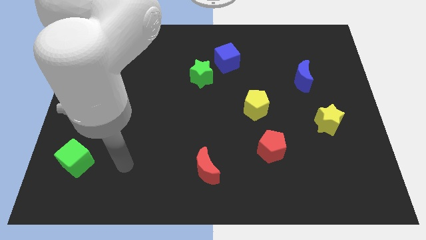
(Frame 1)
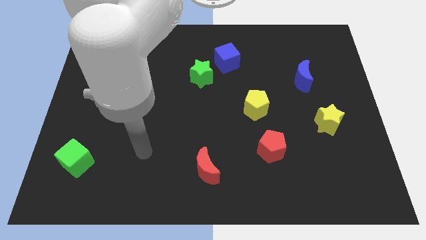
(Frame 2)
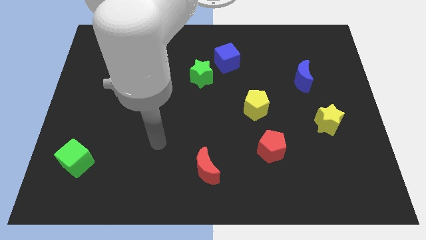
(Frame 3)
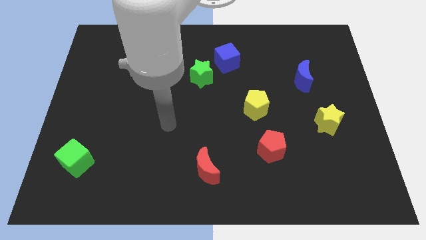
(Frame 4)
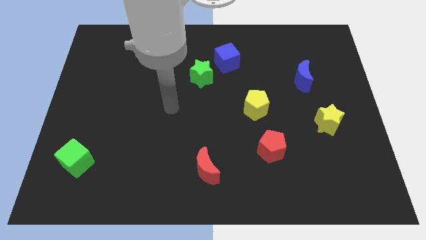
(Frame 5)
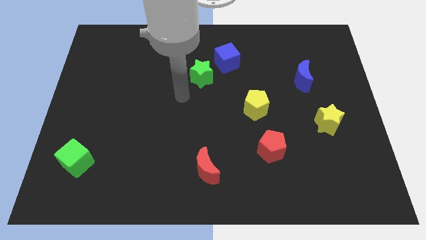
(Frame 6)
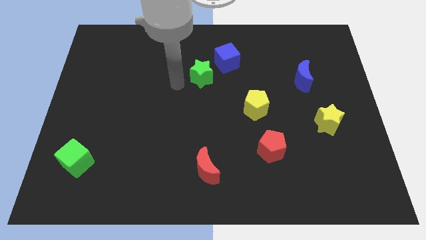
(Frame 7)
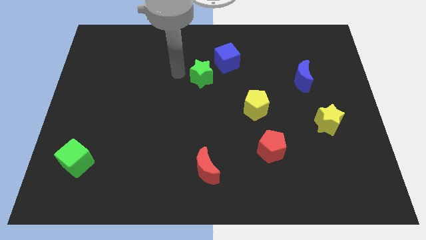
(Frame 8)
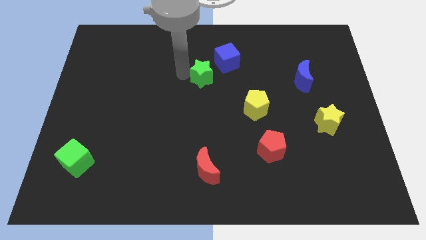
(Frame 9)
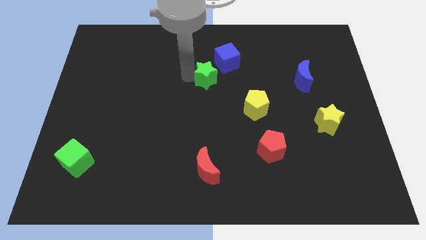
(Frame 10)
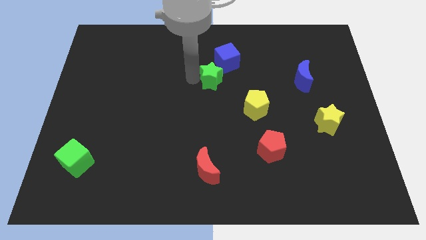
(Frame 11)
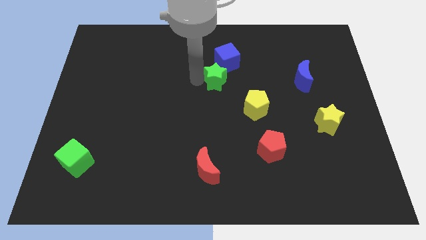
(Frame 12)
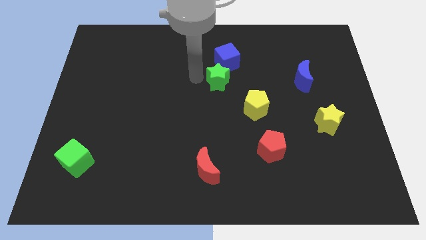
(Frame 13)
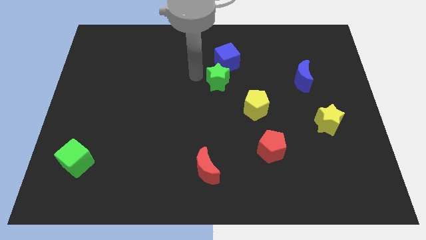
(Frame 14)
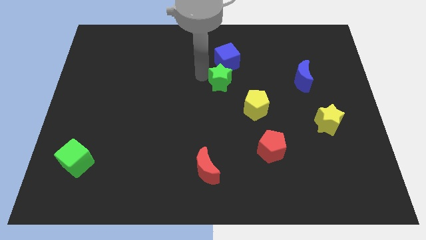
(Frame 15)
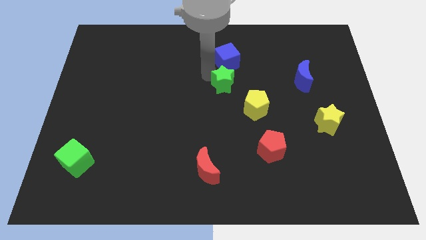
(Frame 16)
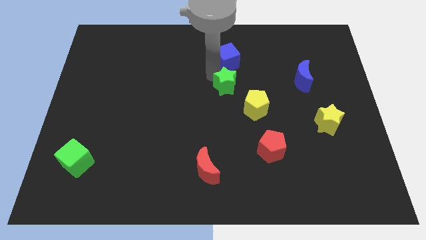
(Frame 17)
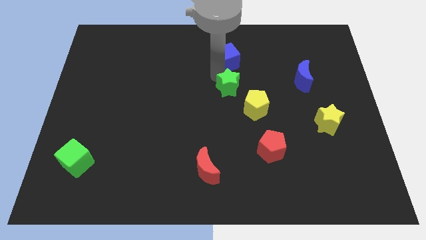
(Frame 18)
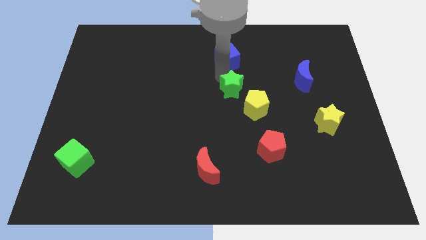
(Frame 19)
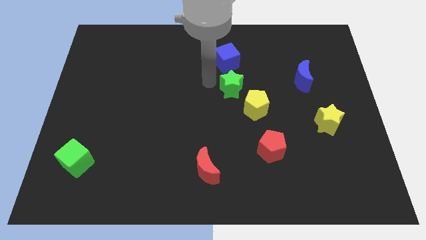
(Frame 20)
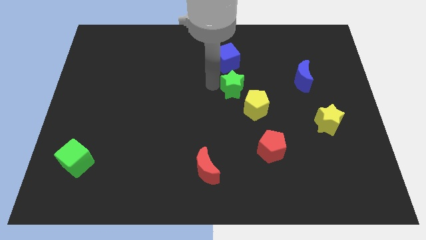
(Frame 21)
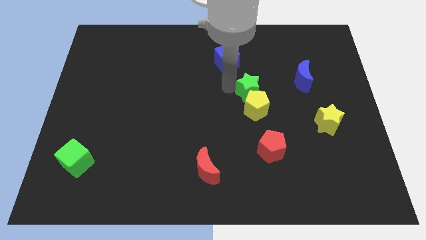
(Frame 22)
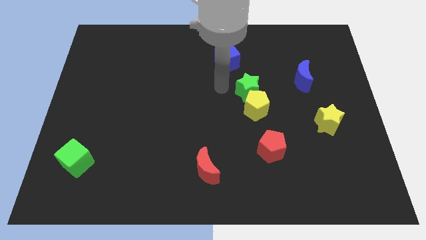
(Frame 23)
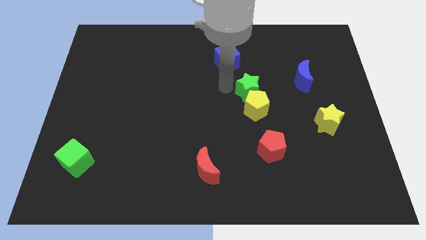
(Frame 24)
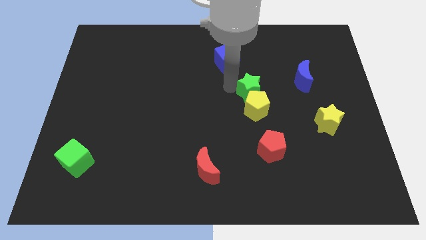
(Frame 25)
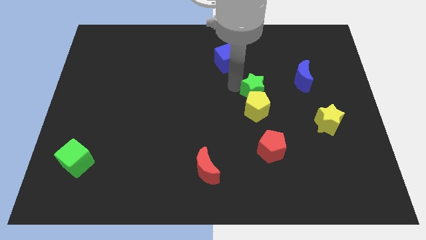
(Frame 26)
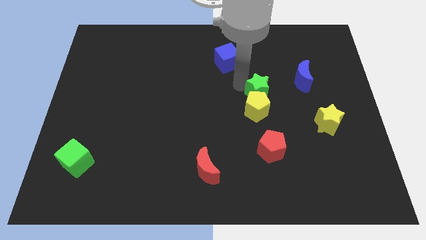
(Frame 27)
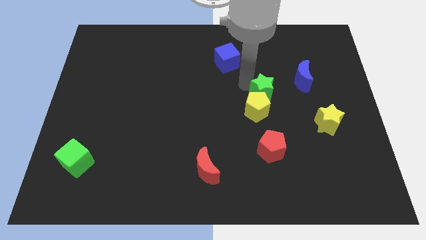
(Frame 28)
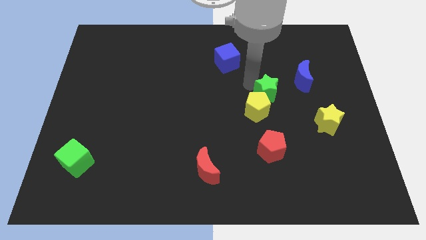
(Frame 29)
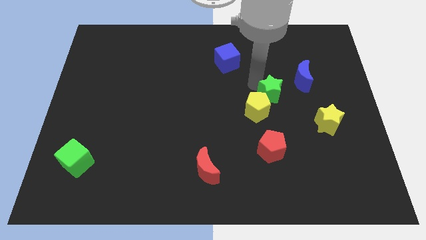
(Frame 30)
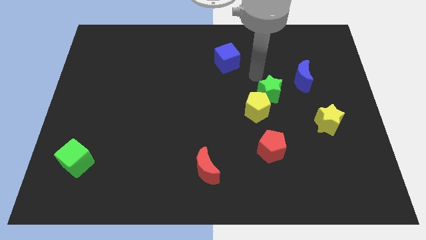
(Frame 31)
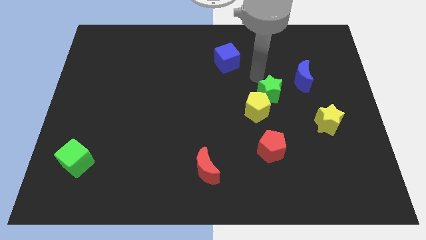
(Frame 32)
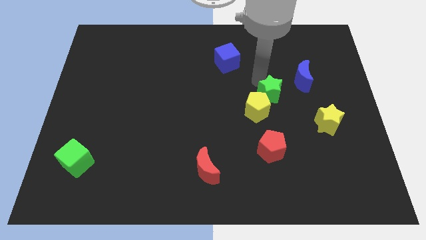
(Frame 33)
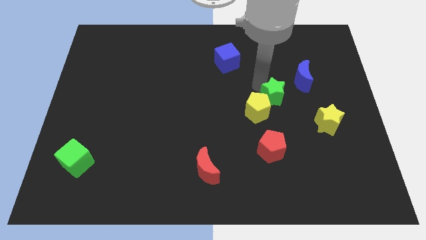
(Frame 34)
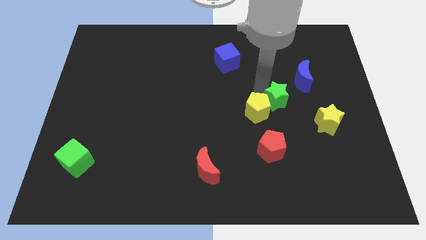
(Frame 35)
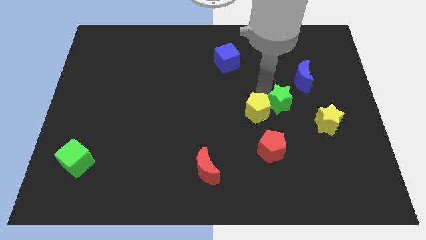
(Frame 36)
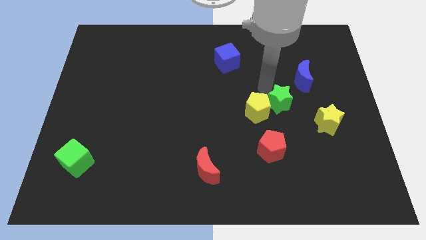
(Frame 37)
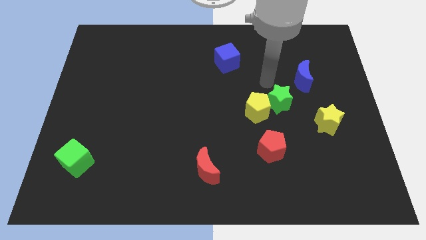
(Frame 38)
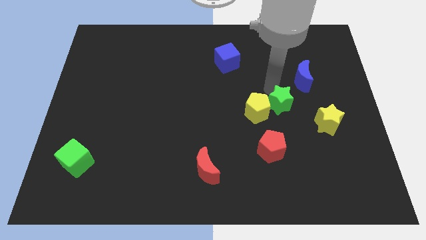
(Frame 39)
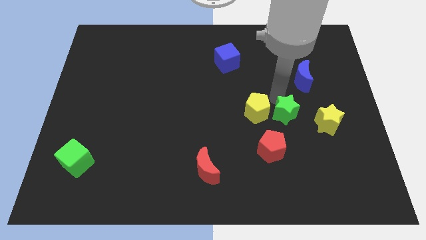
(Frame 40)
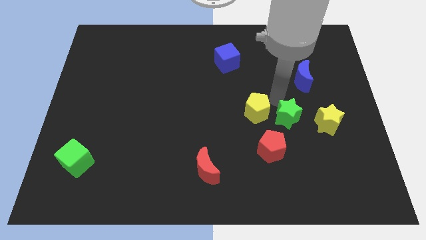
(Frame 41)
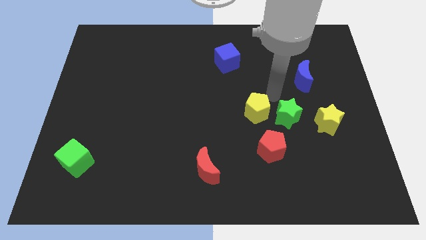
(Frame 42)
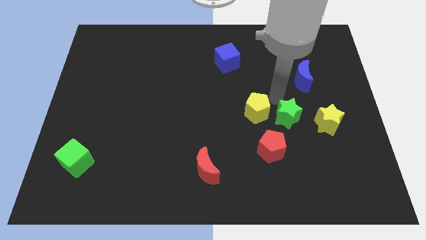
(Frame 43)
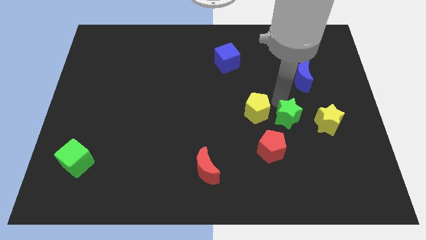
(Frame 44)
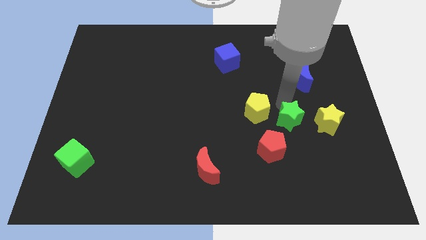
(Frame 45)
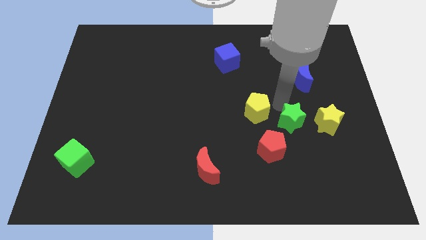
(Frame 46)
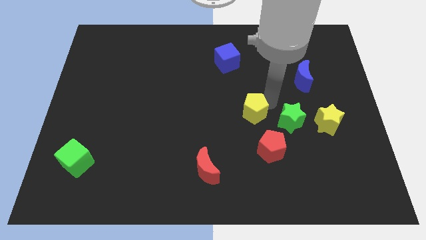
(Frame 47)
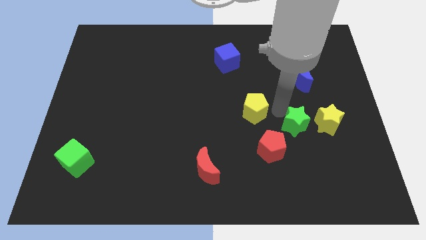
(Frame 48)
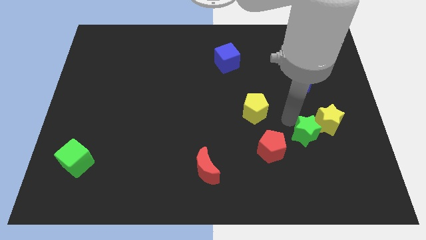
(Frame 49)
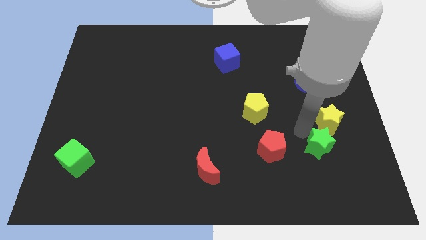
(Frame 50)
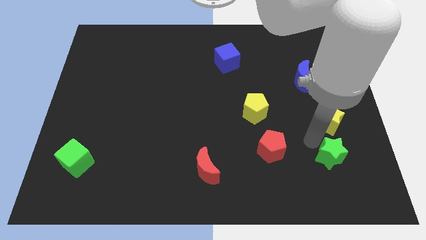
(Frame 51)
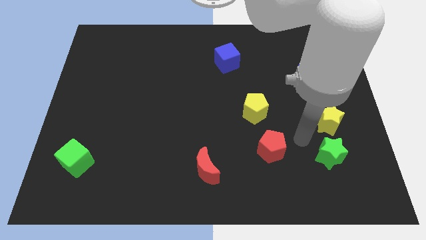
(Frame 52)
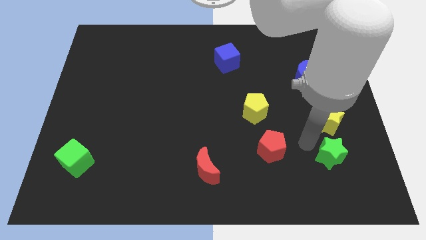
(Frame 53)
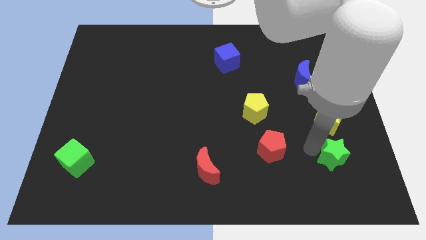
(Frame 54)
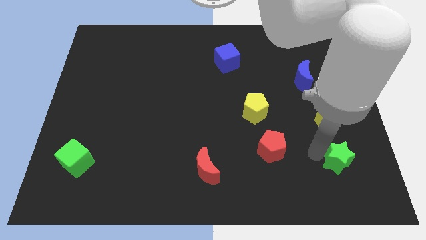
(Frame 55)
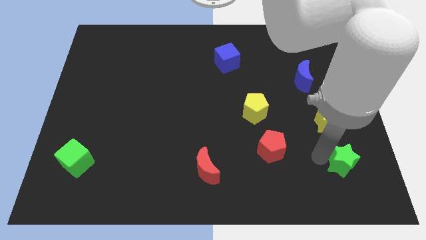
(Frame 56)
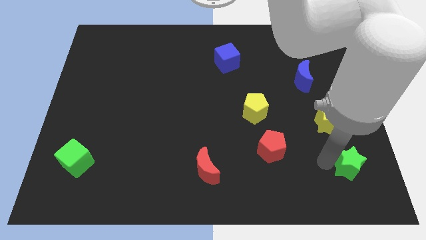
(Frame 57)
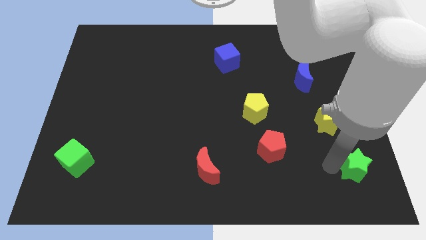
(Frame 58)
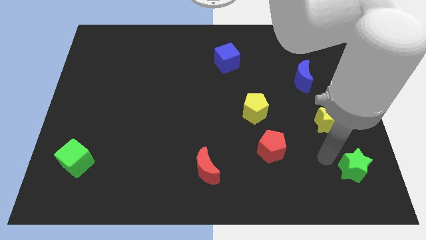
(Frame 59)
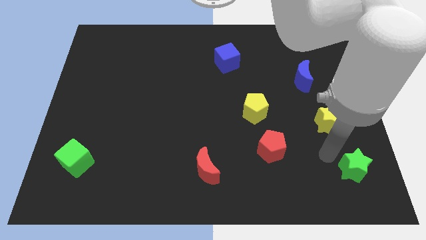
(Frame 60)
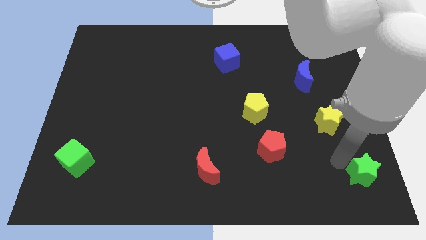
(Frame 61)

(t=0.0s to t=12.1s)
slide the green star to the lower right corner

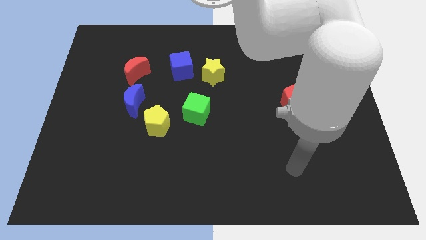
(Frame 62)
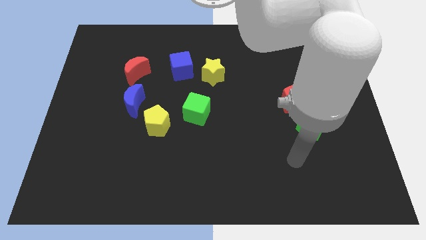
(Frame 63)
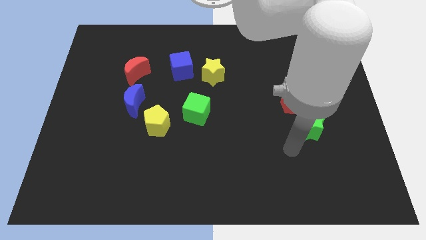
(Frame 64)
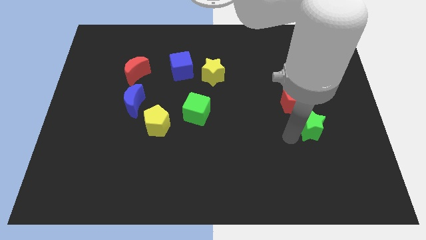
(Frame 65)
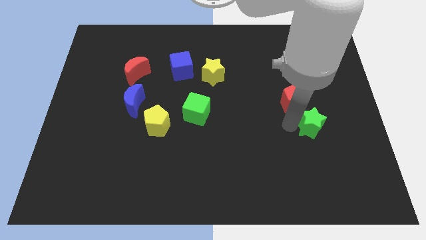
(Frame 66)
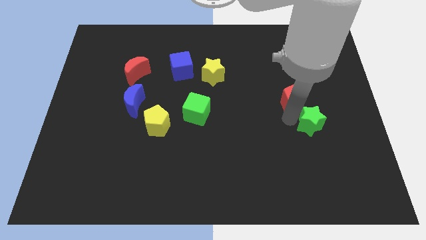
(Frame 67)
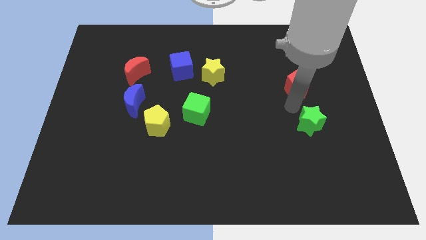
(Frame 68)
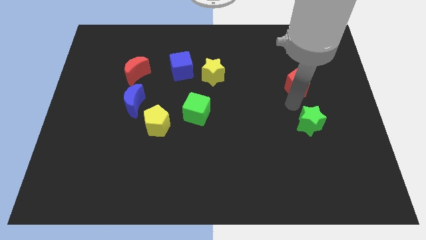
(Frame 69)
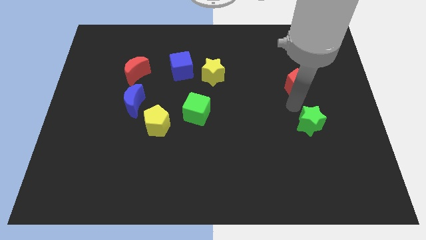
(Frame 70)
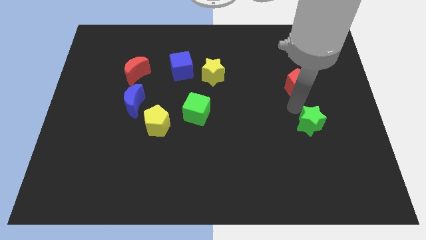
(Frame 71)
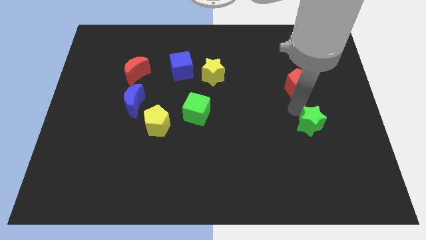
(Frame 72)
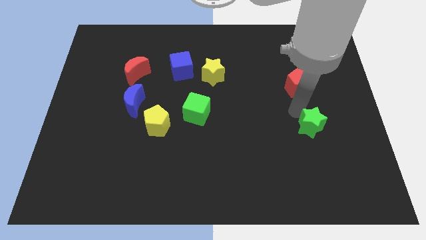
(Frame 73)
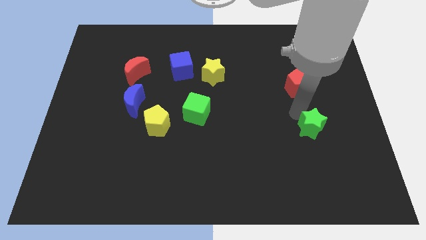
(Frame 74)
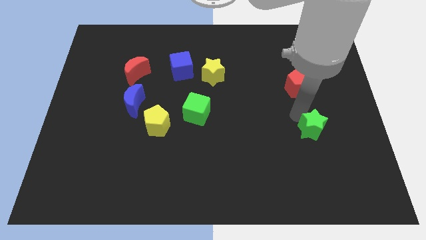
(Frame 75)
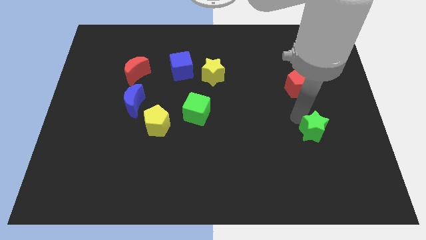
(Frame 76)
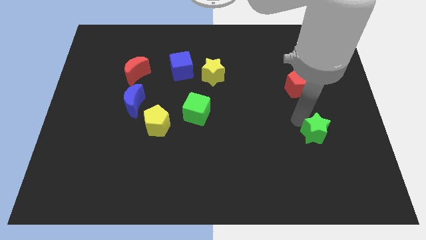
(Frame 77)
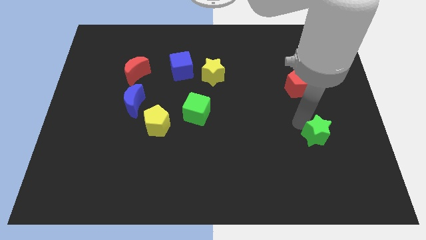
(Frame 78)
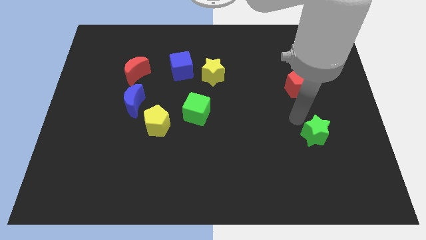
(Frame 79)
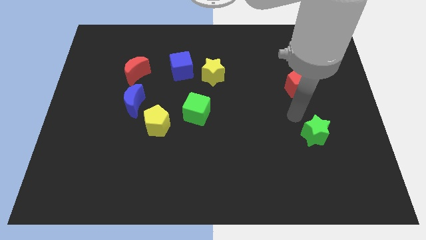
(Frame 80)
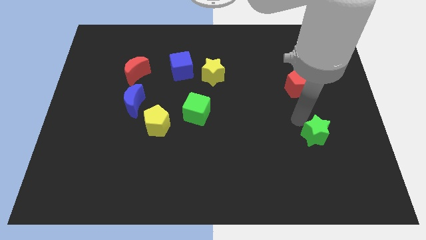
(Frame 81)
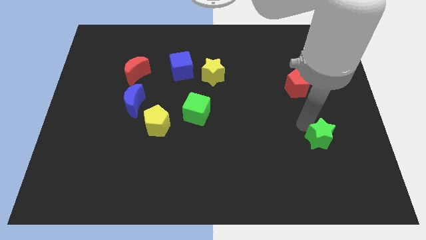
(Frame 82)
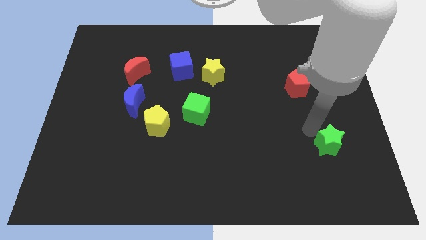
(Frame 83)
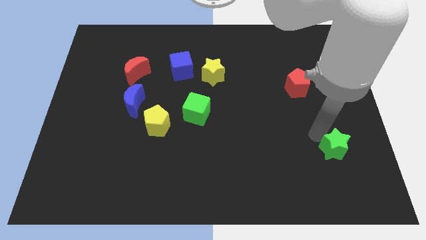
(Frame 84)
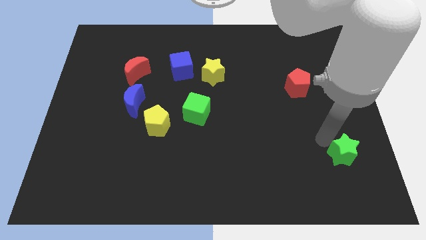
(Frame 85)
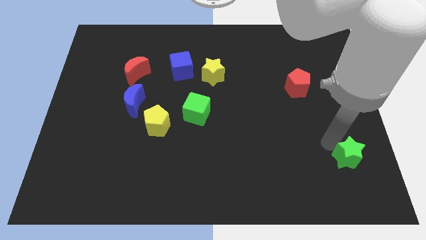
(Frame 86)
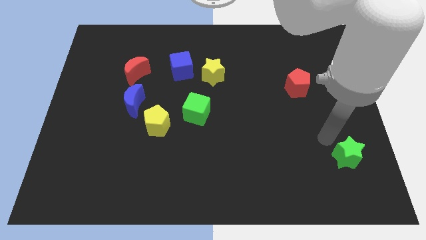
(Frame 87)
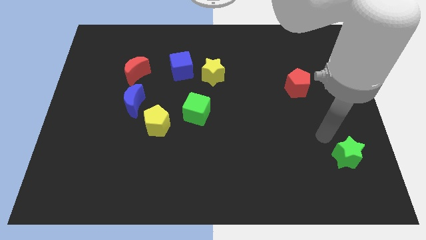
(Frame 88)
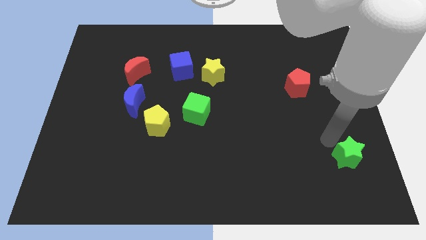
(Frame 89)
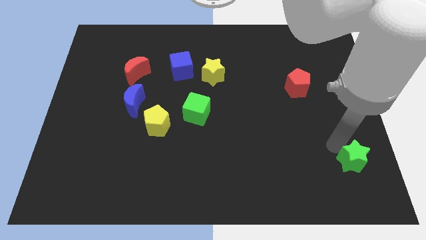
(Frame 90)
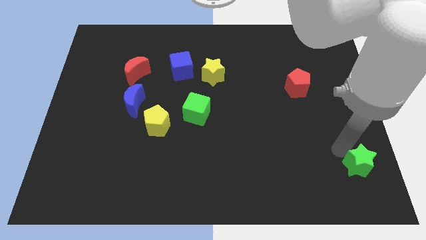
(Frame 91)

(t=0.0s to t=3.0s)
put the green star to the bottom right of the board
